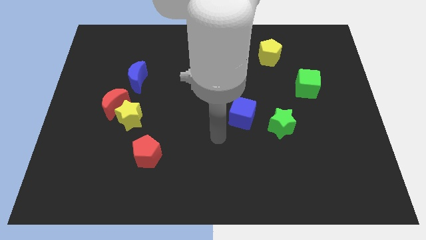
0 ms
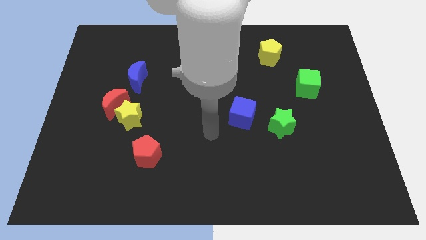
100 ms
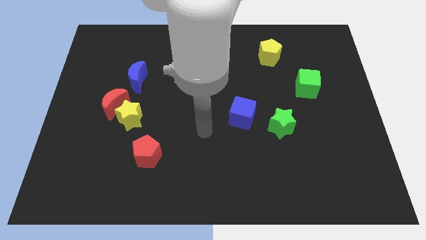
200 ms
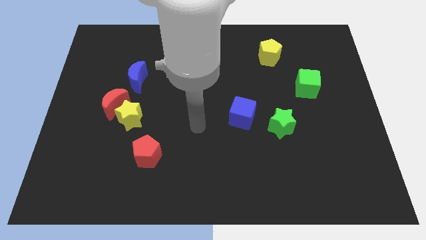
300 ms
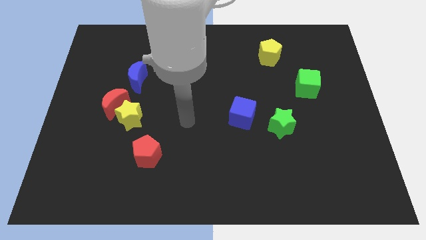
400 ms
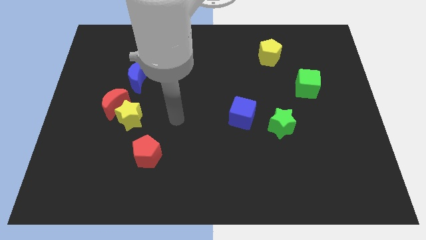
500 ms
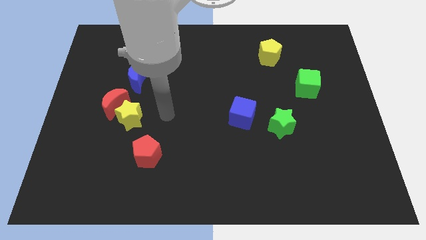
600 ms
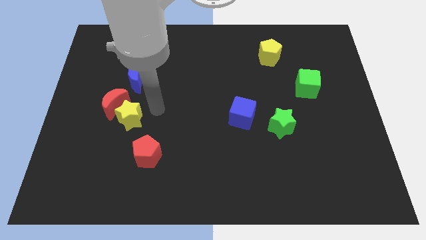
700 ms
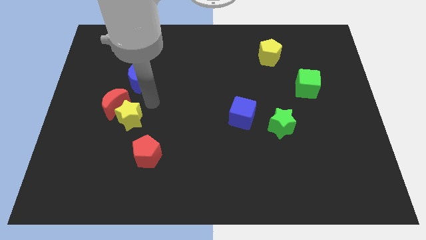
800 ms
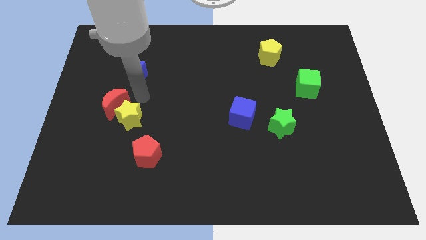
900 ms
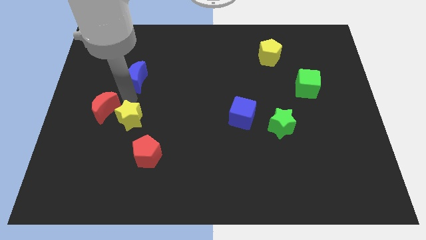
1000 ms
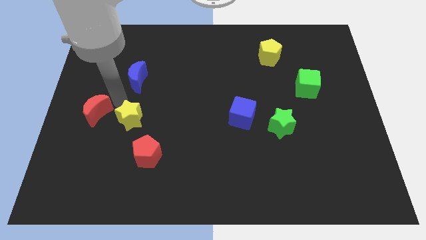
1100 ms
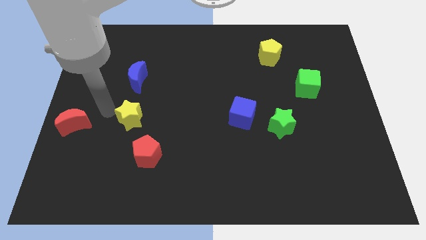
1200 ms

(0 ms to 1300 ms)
separate the yellow star from the red moon

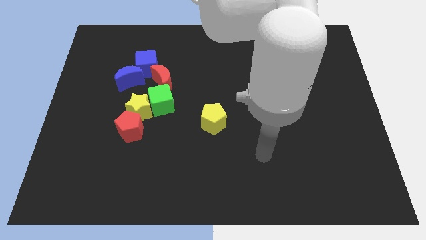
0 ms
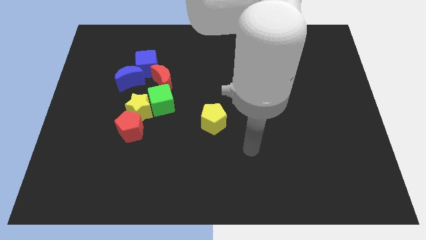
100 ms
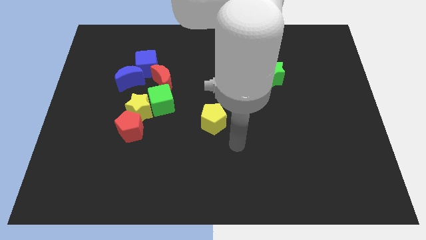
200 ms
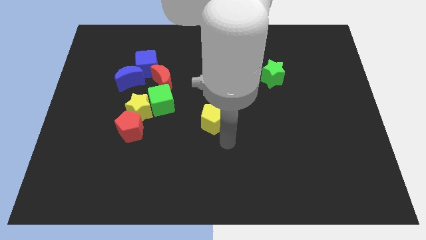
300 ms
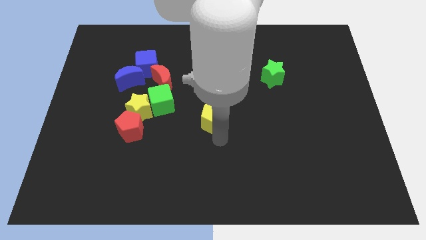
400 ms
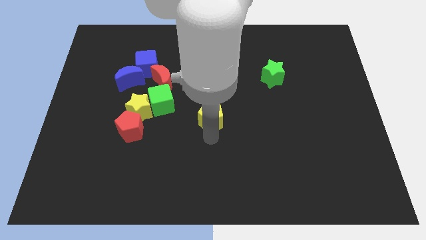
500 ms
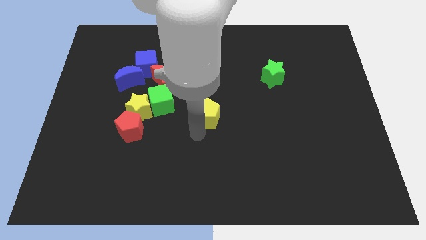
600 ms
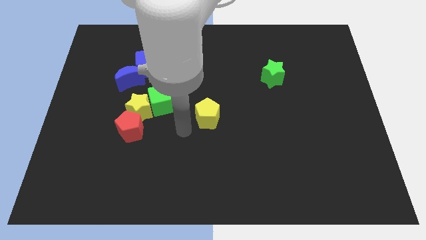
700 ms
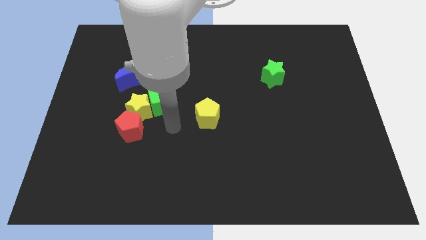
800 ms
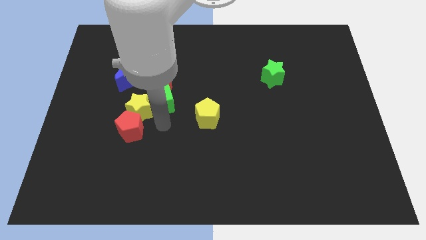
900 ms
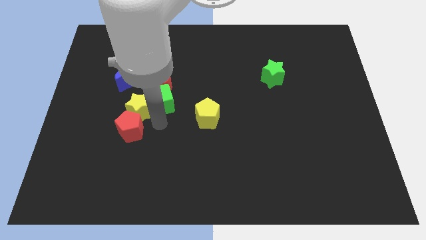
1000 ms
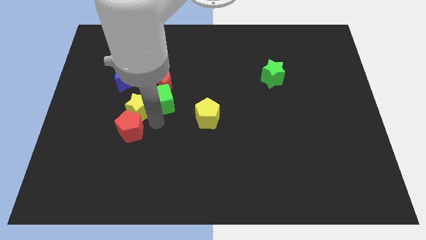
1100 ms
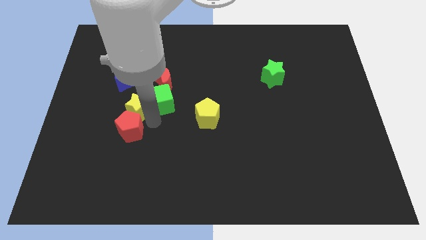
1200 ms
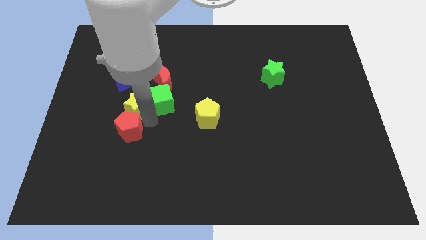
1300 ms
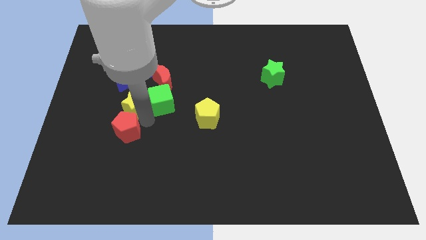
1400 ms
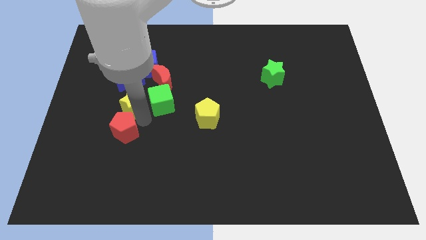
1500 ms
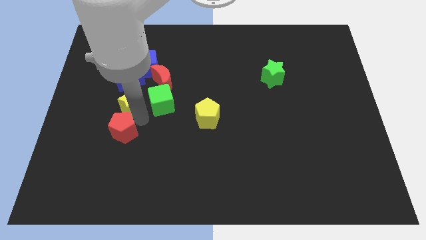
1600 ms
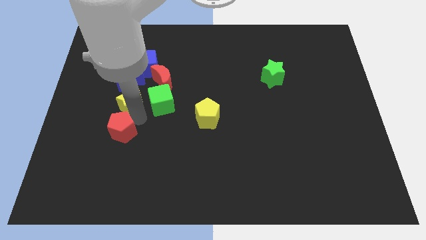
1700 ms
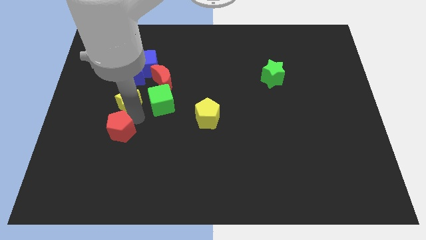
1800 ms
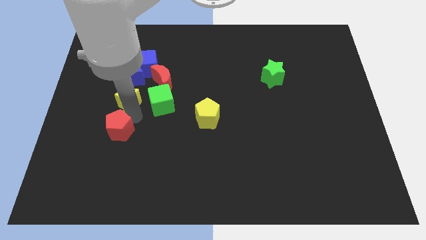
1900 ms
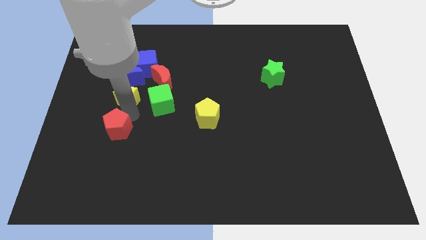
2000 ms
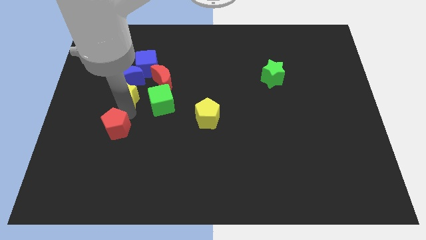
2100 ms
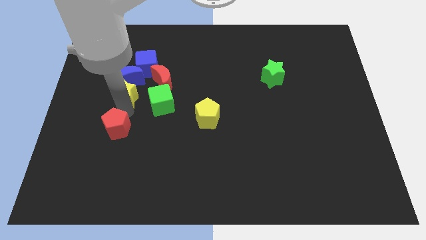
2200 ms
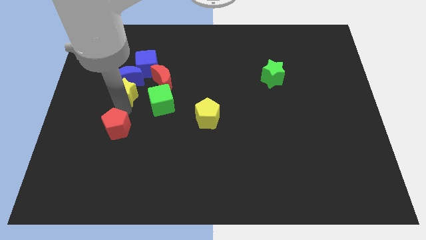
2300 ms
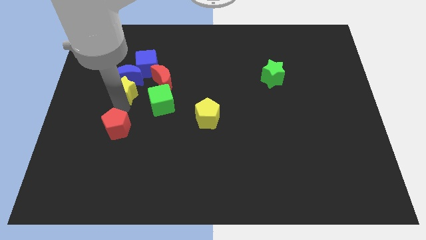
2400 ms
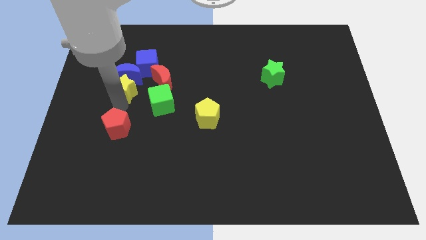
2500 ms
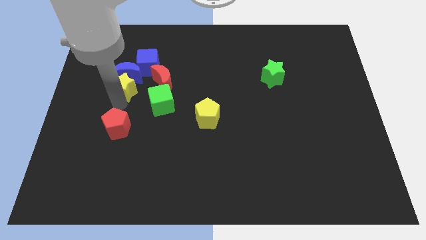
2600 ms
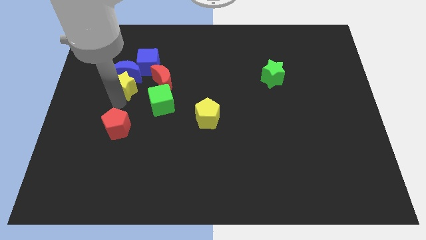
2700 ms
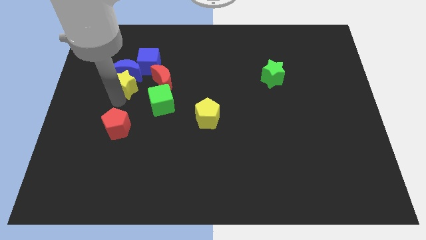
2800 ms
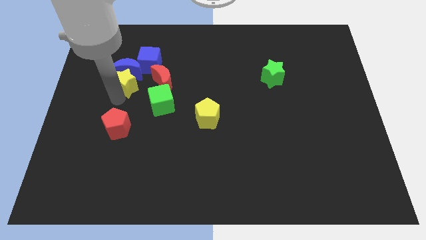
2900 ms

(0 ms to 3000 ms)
separate the yellow star from the red pentagon and green cube

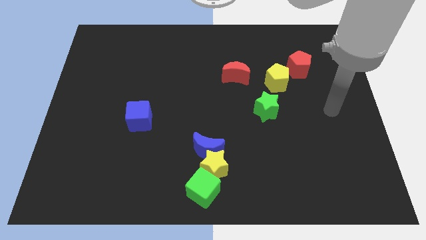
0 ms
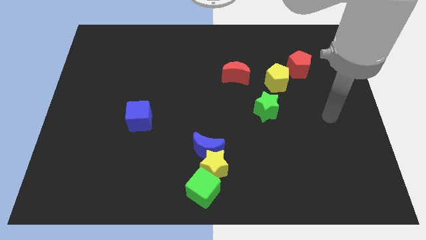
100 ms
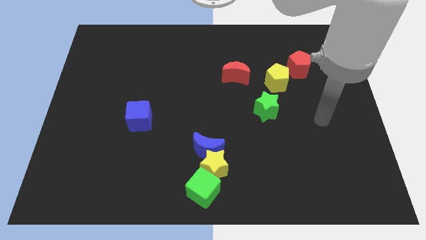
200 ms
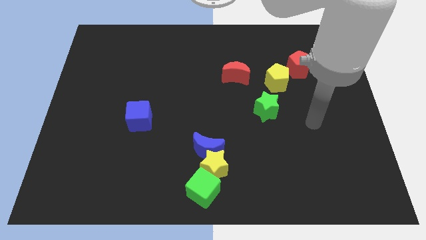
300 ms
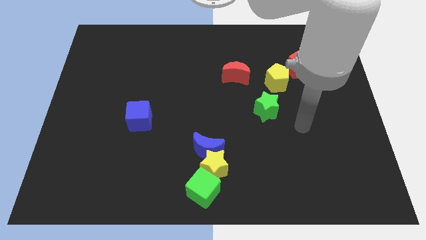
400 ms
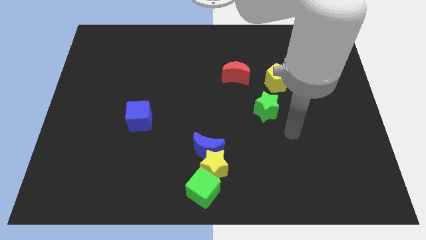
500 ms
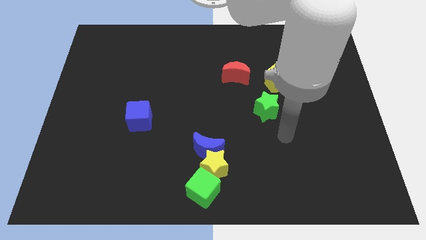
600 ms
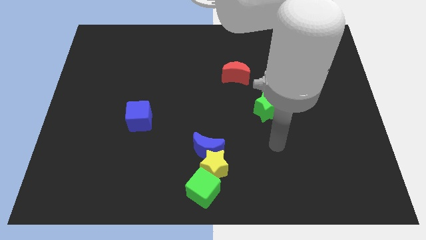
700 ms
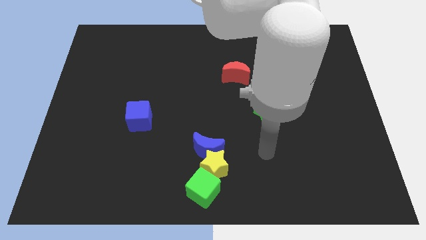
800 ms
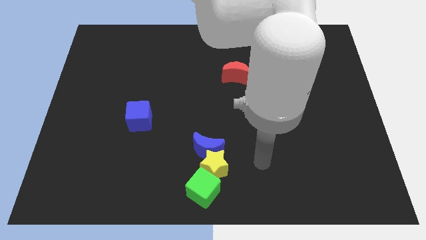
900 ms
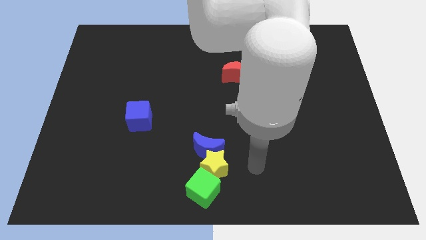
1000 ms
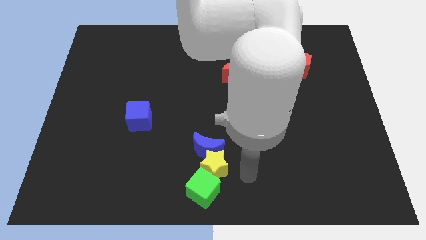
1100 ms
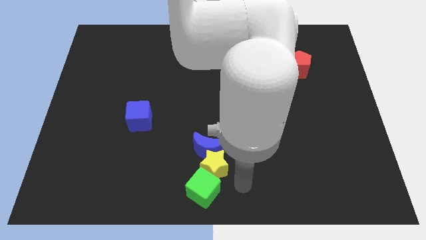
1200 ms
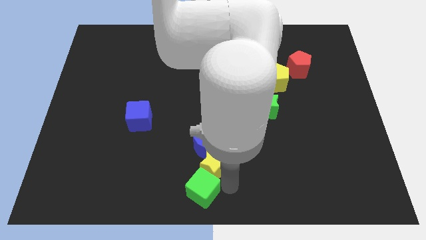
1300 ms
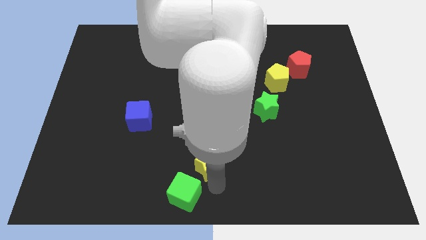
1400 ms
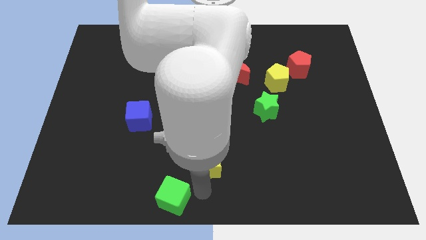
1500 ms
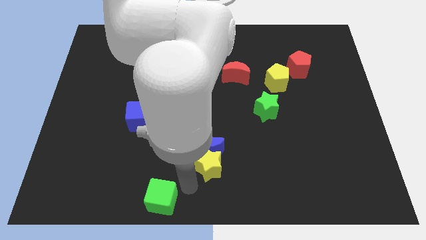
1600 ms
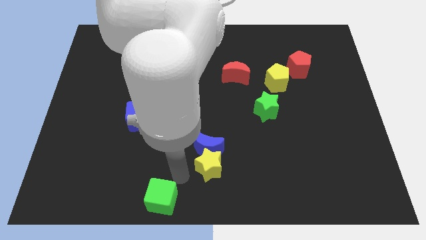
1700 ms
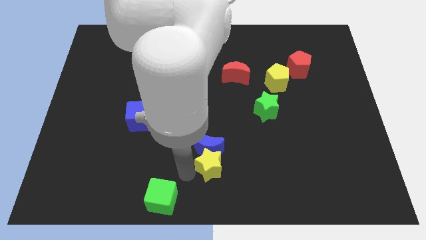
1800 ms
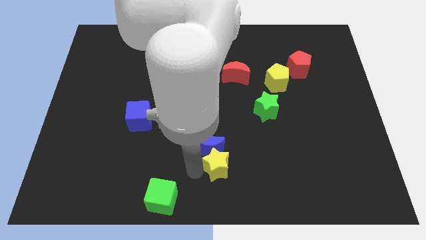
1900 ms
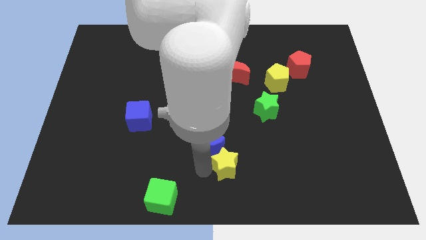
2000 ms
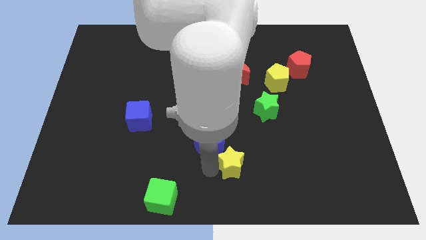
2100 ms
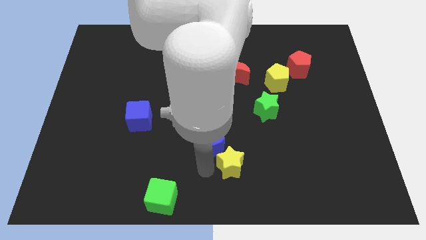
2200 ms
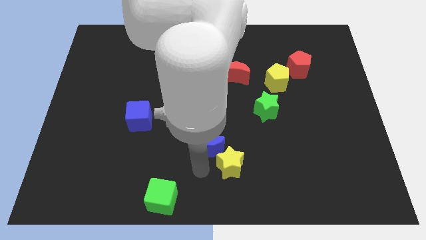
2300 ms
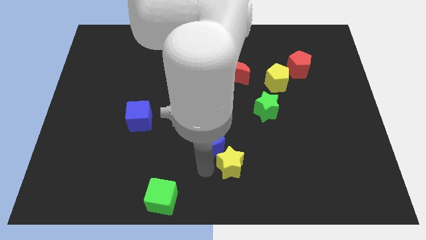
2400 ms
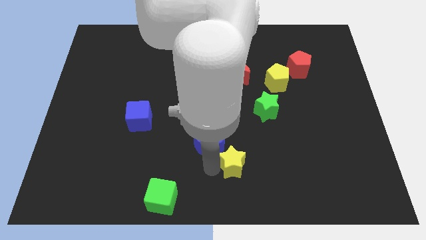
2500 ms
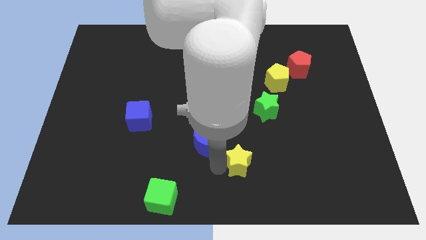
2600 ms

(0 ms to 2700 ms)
pull the yellow star apart from the blue moon and green cube

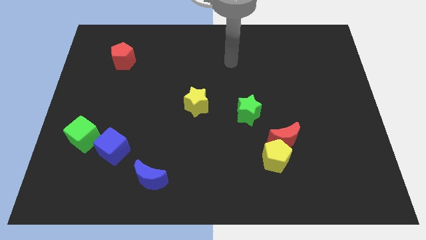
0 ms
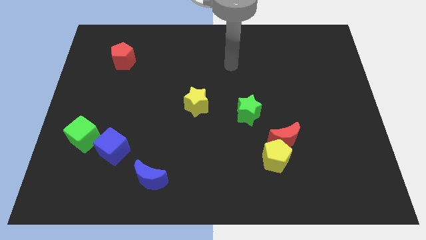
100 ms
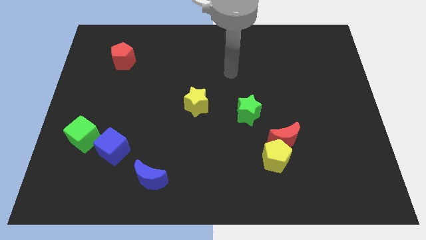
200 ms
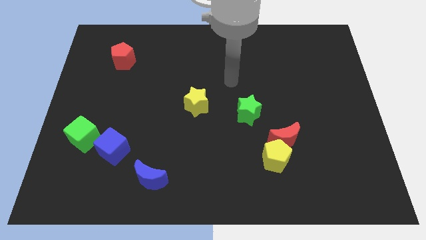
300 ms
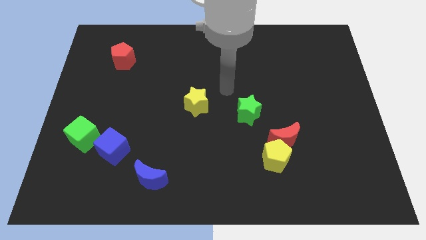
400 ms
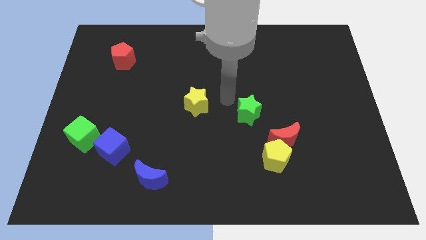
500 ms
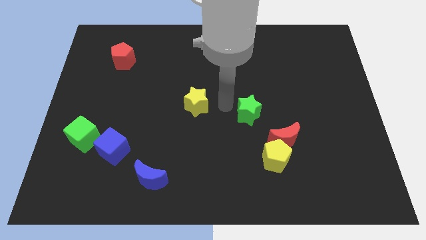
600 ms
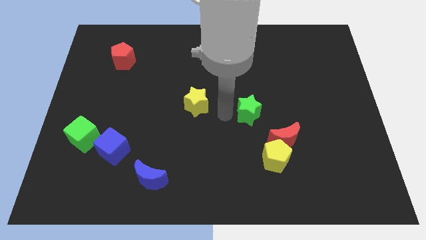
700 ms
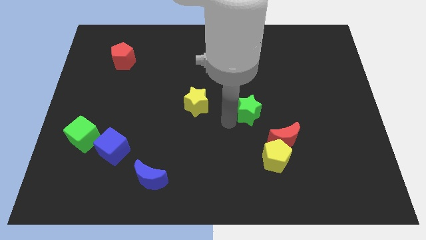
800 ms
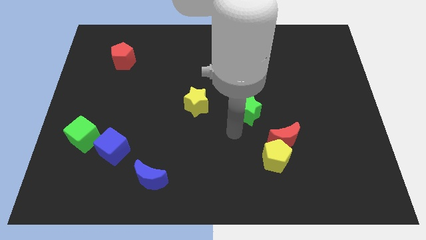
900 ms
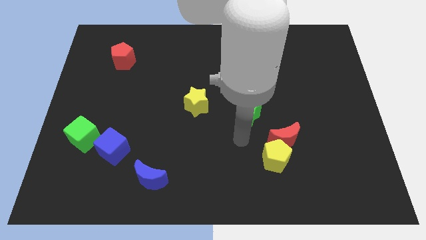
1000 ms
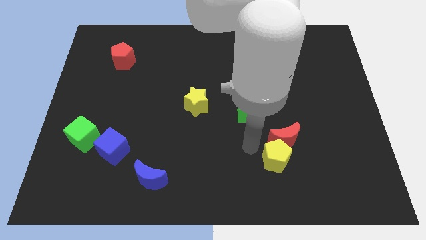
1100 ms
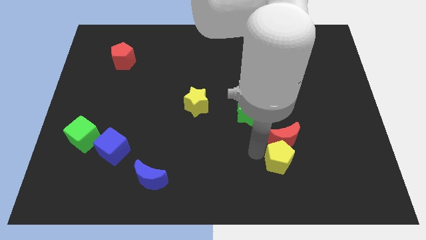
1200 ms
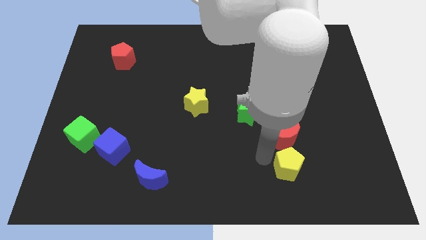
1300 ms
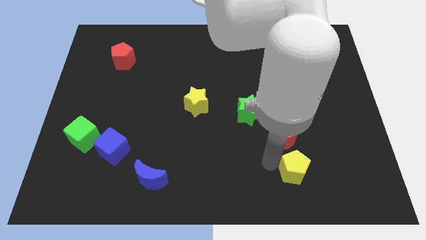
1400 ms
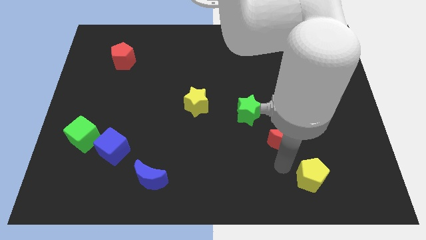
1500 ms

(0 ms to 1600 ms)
move the red moon away from the yellow pentagon

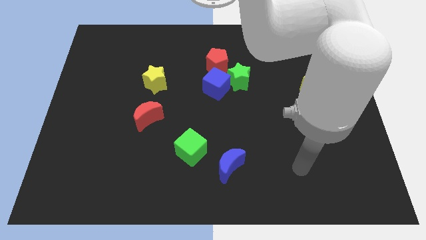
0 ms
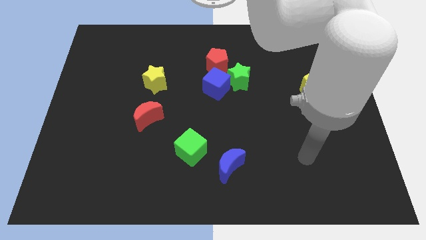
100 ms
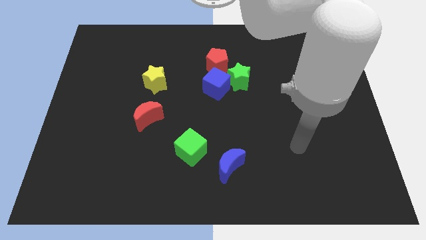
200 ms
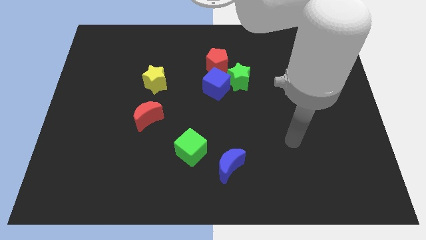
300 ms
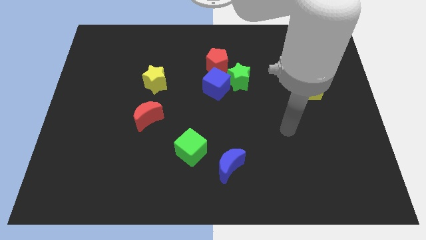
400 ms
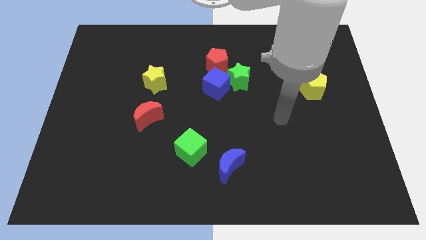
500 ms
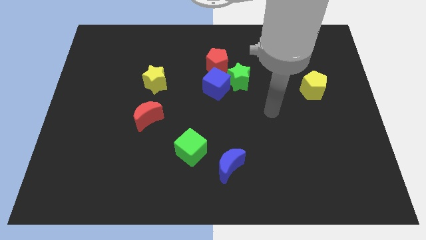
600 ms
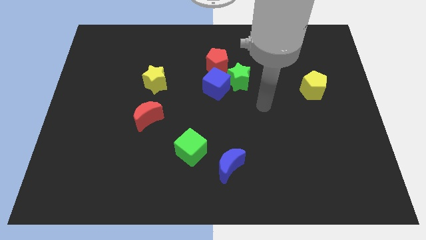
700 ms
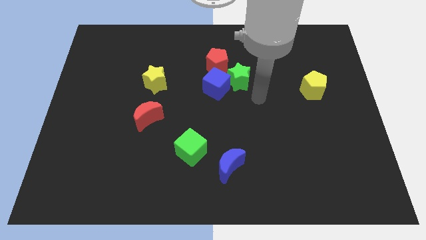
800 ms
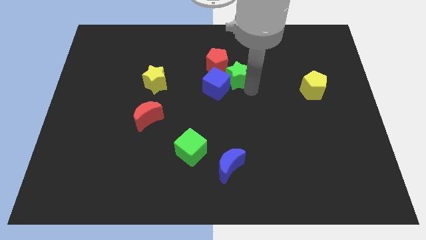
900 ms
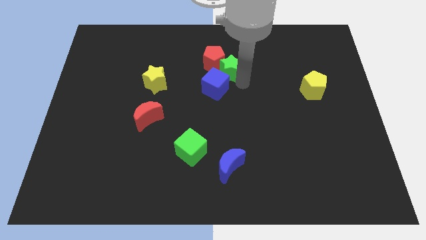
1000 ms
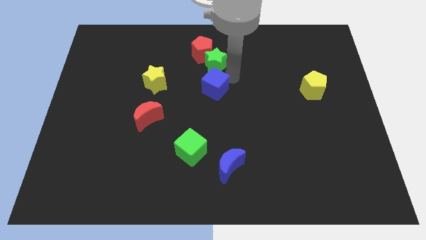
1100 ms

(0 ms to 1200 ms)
separate the blue cube from the green star and red pentagon
